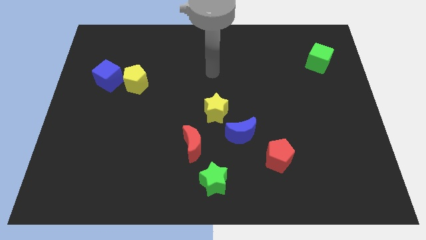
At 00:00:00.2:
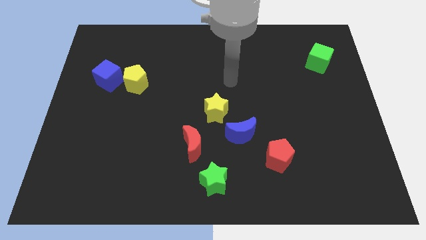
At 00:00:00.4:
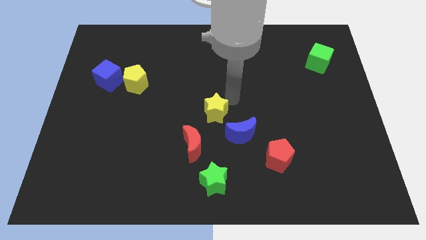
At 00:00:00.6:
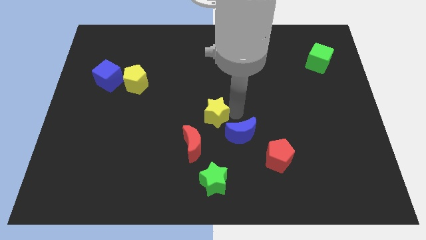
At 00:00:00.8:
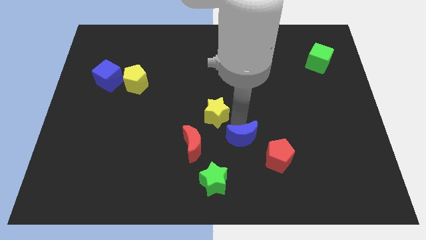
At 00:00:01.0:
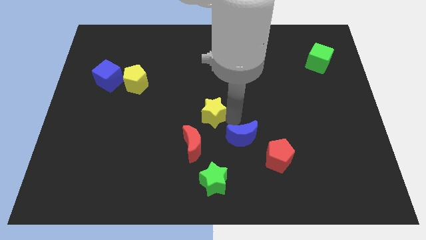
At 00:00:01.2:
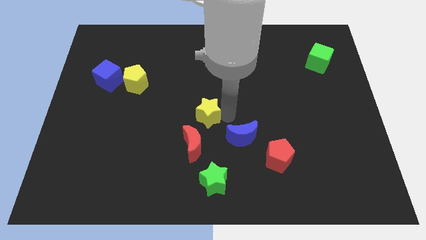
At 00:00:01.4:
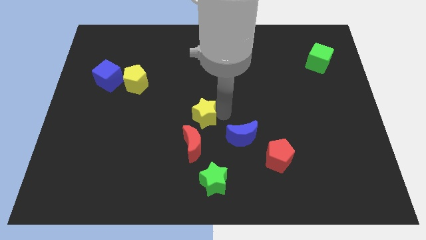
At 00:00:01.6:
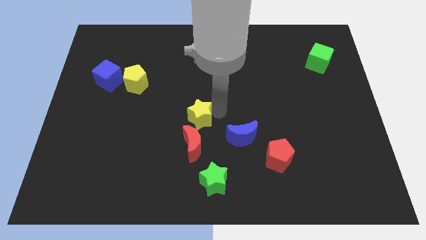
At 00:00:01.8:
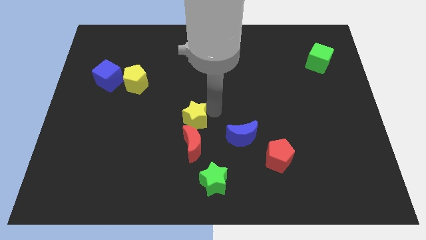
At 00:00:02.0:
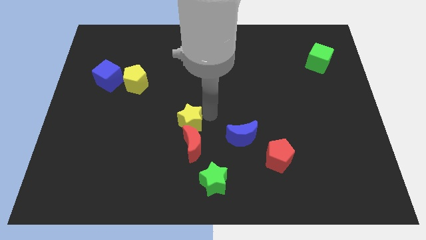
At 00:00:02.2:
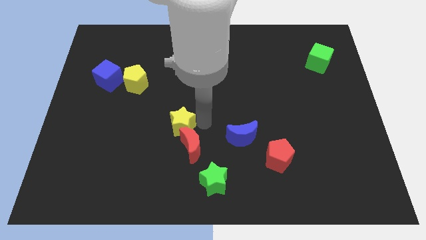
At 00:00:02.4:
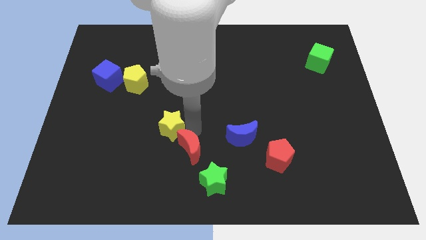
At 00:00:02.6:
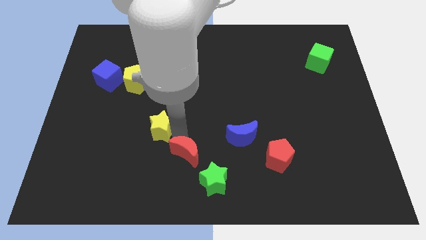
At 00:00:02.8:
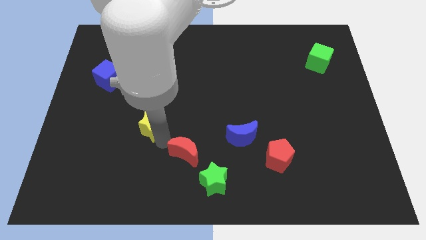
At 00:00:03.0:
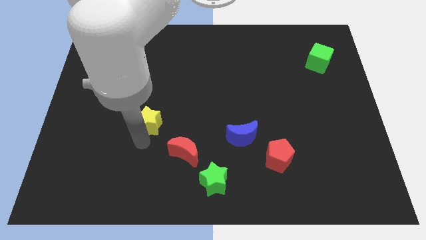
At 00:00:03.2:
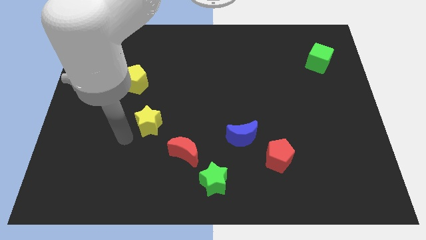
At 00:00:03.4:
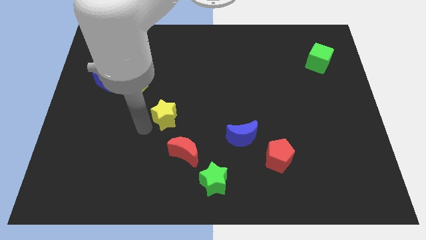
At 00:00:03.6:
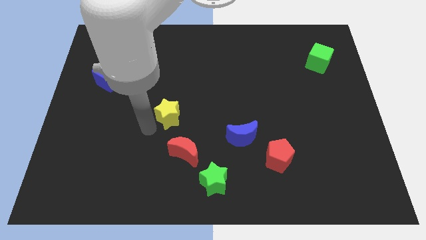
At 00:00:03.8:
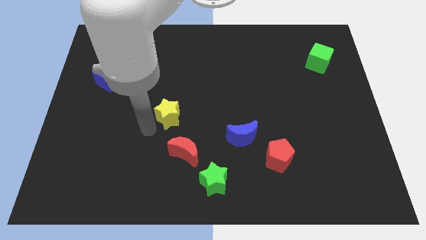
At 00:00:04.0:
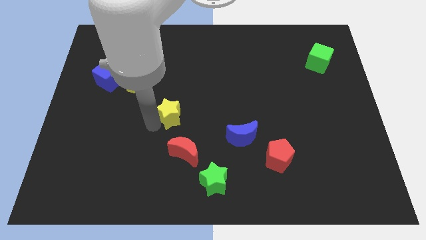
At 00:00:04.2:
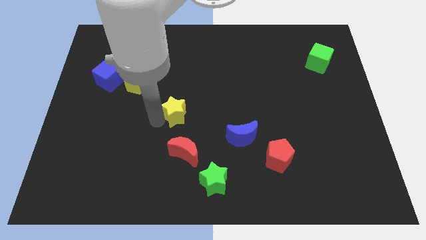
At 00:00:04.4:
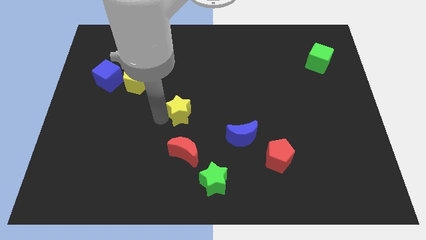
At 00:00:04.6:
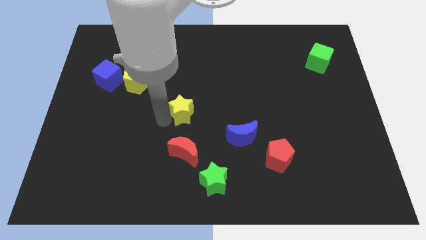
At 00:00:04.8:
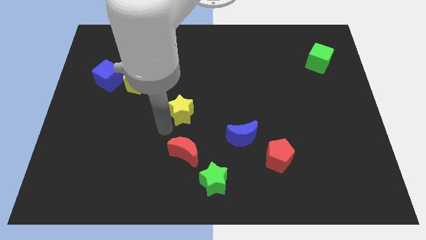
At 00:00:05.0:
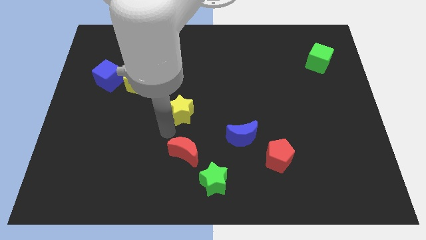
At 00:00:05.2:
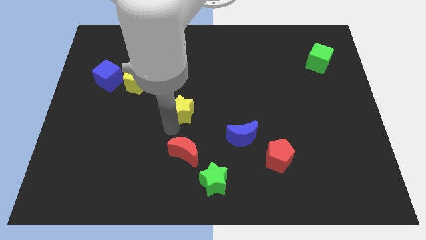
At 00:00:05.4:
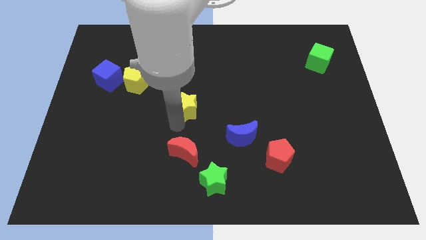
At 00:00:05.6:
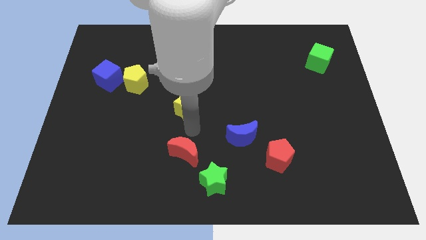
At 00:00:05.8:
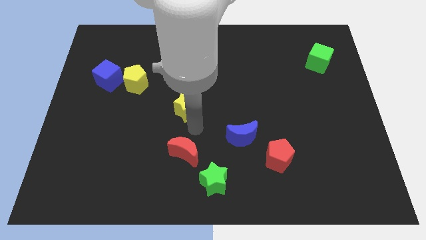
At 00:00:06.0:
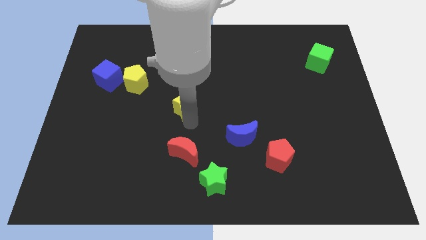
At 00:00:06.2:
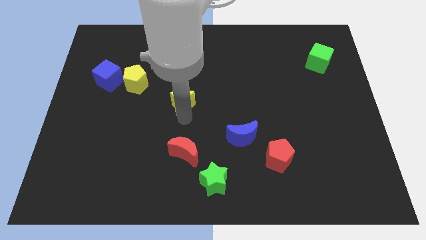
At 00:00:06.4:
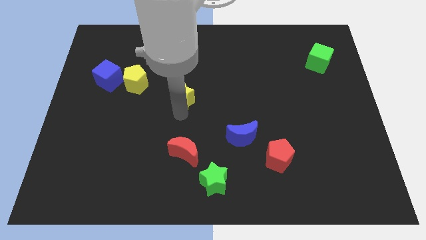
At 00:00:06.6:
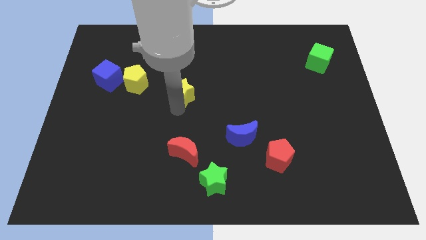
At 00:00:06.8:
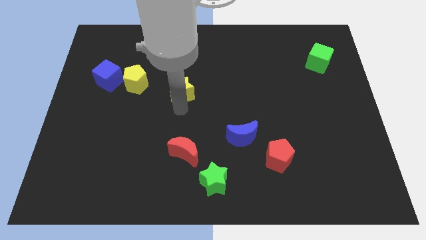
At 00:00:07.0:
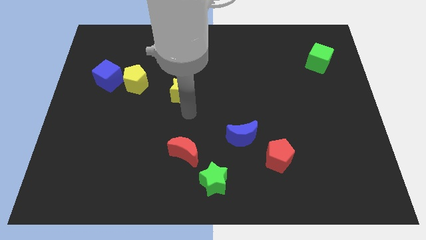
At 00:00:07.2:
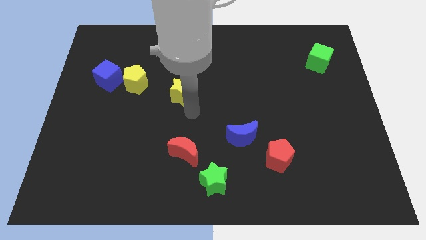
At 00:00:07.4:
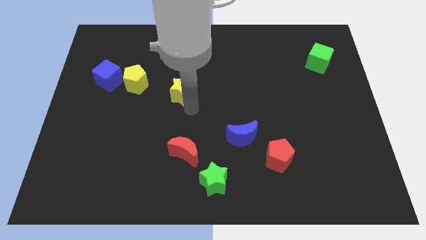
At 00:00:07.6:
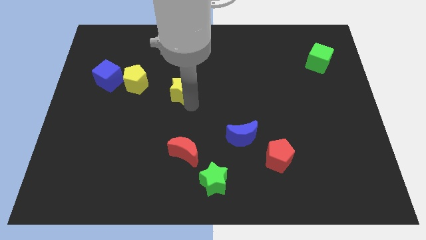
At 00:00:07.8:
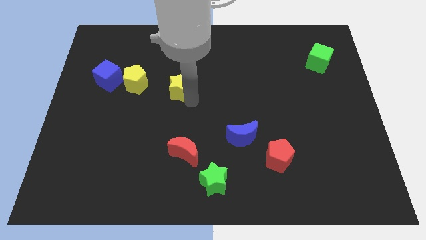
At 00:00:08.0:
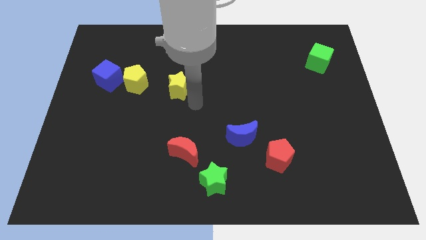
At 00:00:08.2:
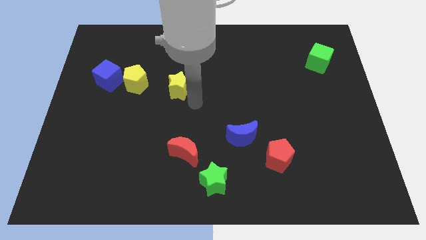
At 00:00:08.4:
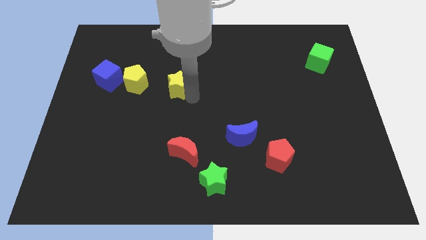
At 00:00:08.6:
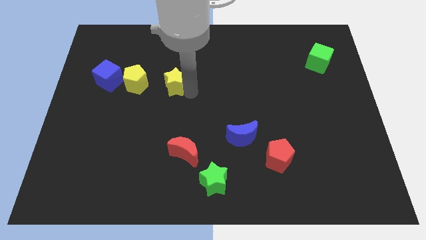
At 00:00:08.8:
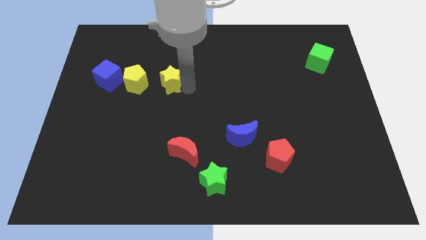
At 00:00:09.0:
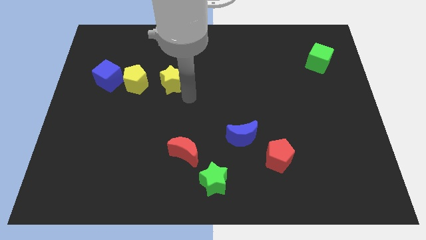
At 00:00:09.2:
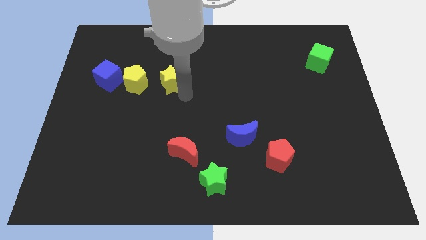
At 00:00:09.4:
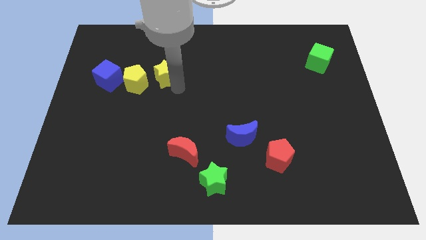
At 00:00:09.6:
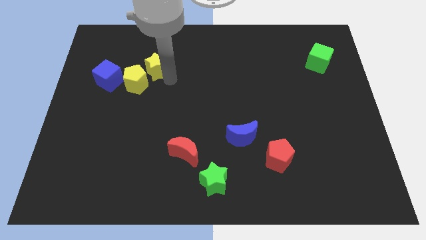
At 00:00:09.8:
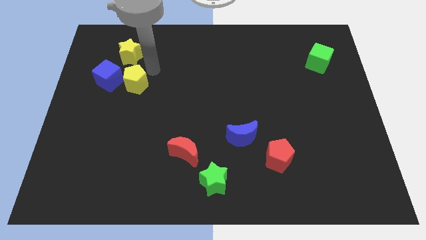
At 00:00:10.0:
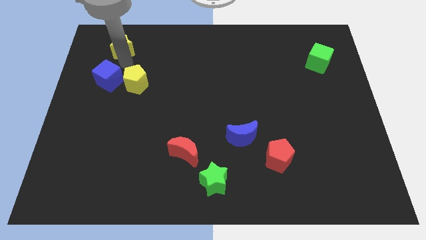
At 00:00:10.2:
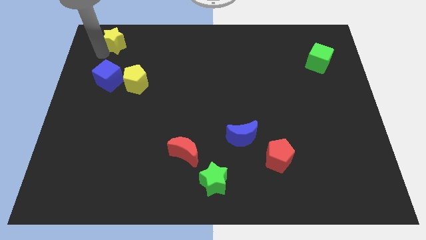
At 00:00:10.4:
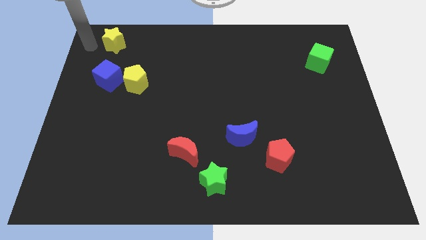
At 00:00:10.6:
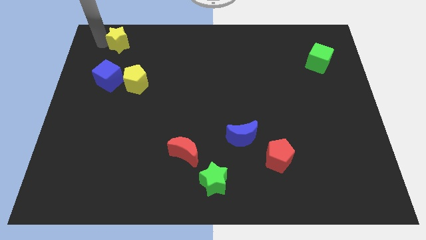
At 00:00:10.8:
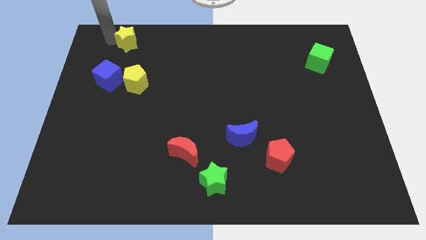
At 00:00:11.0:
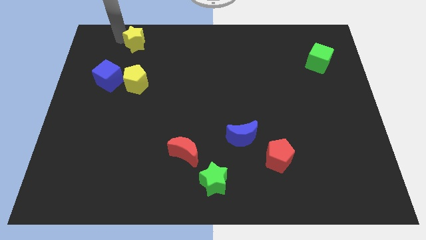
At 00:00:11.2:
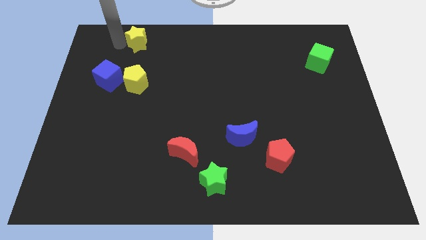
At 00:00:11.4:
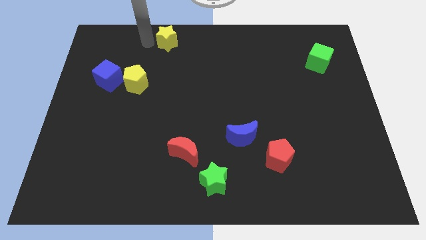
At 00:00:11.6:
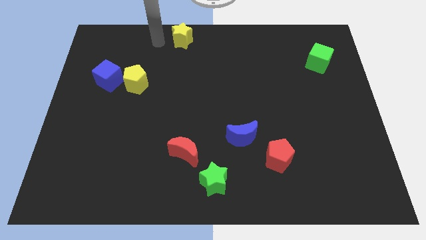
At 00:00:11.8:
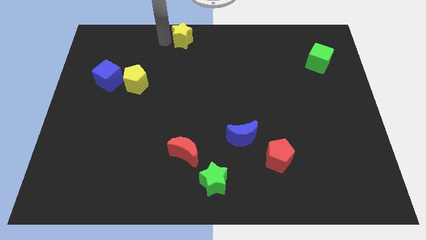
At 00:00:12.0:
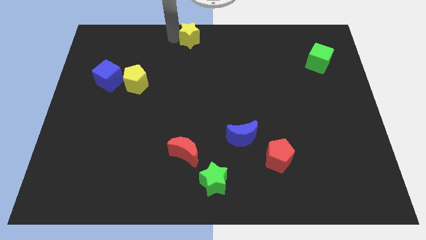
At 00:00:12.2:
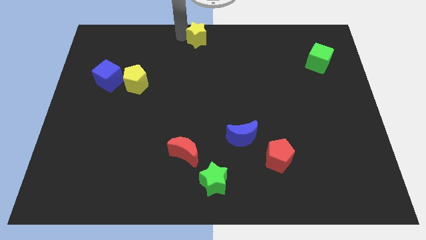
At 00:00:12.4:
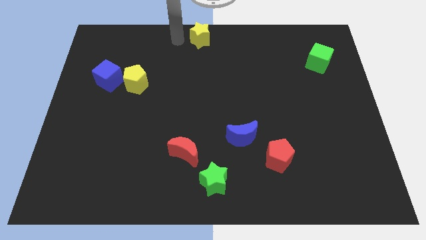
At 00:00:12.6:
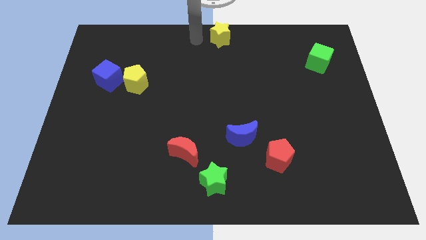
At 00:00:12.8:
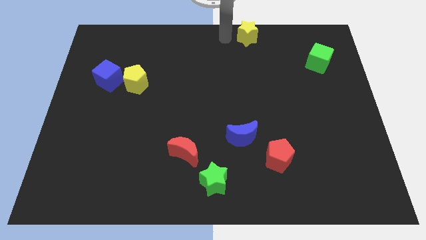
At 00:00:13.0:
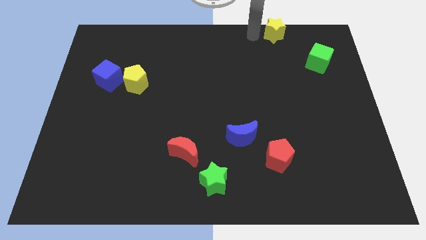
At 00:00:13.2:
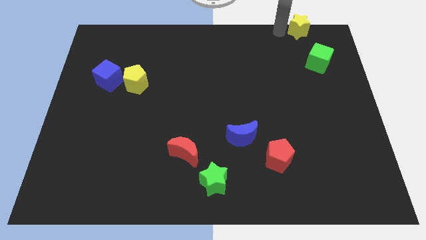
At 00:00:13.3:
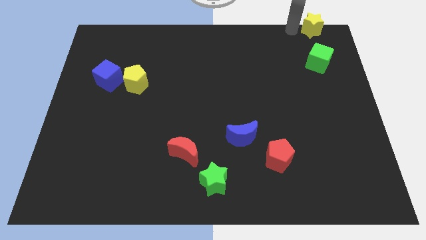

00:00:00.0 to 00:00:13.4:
put the yellow star to the upper right corner
